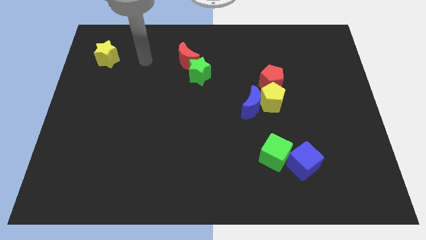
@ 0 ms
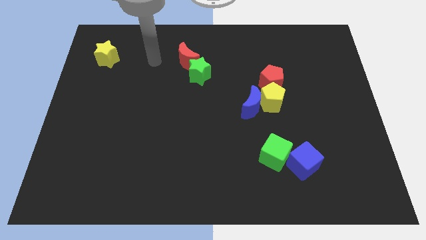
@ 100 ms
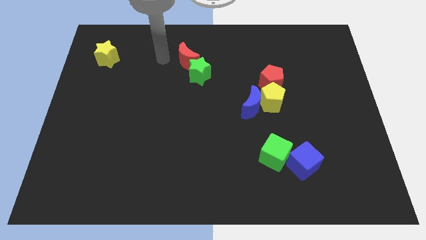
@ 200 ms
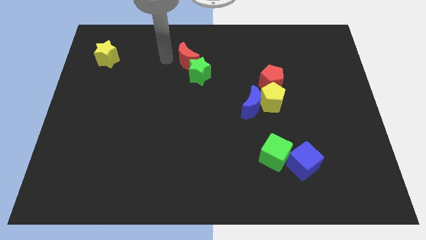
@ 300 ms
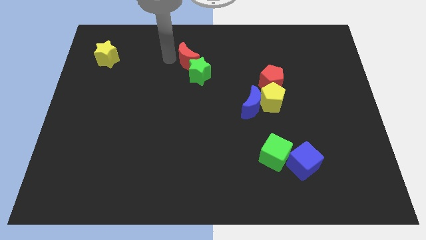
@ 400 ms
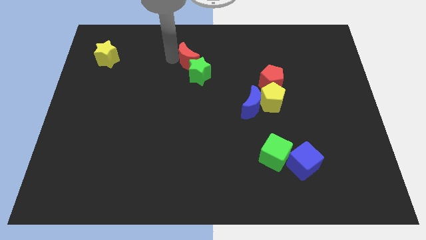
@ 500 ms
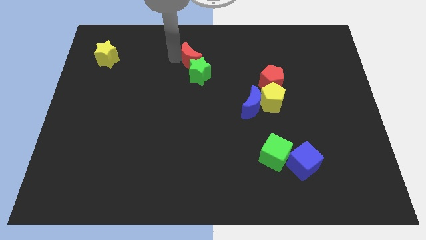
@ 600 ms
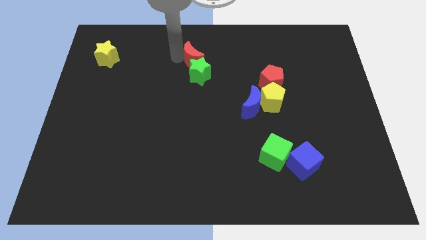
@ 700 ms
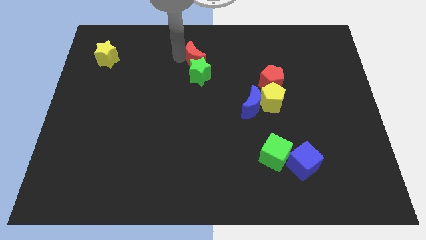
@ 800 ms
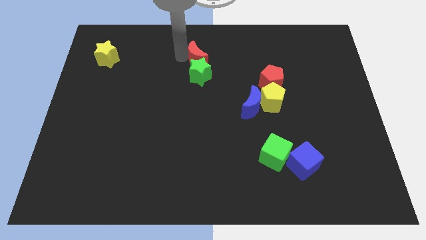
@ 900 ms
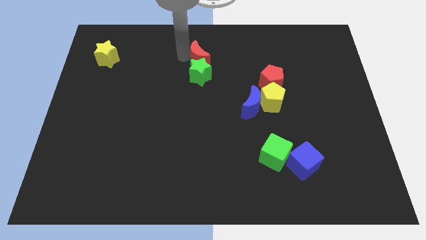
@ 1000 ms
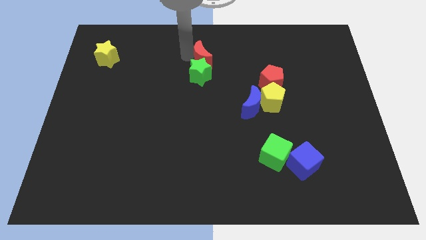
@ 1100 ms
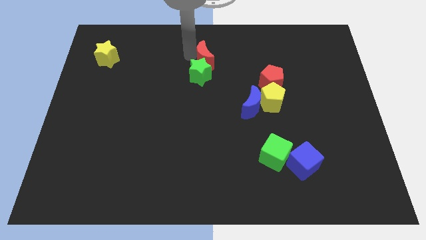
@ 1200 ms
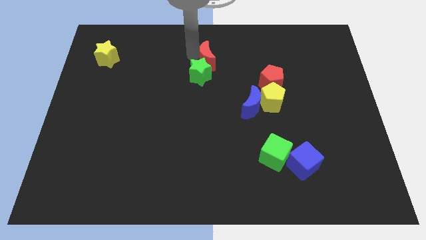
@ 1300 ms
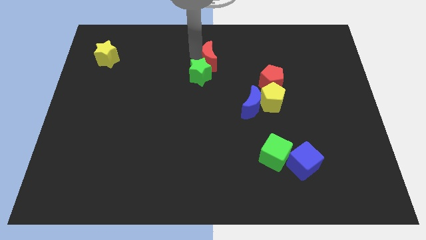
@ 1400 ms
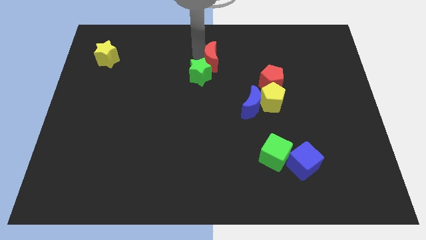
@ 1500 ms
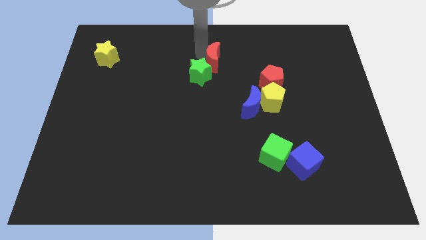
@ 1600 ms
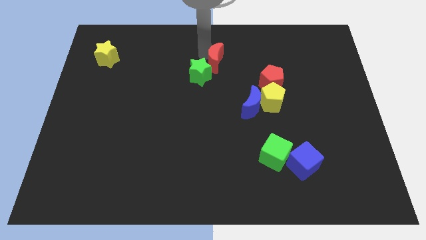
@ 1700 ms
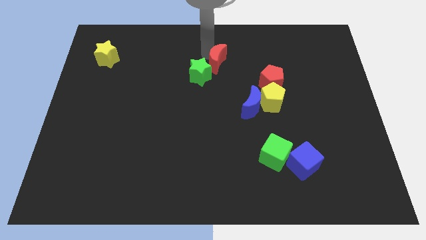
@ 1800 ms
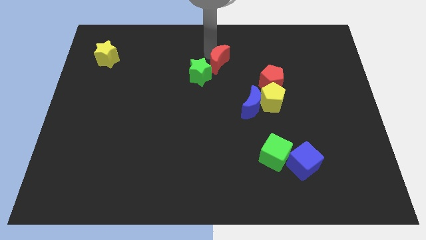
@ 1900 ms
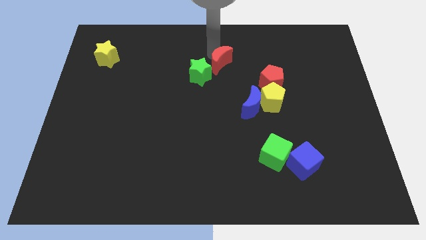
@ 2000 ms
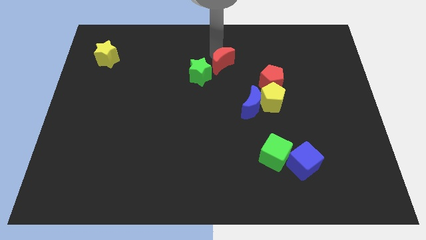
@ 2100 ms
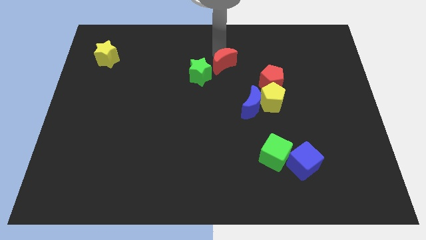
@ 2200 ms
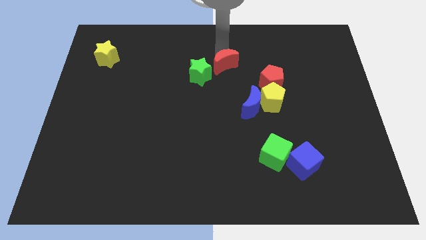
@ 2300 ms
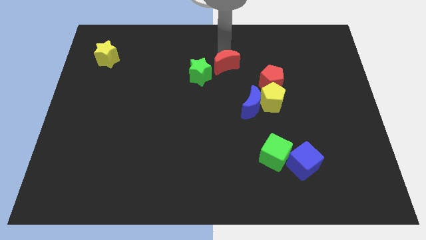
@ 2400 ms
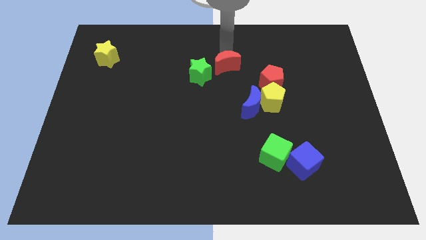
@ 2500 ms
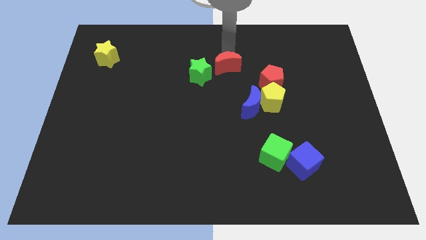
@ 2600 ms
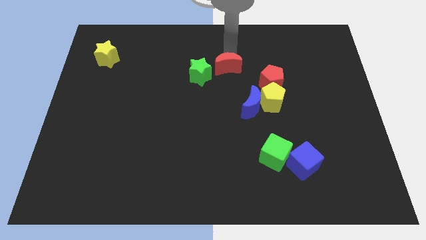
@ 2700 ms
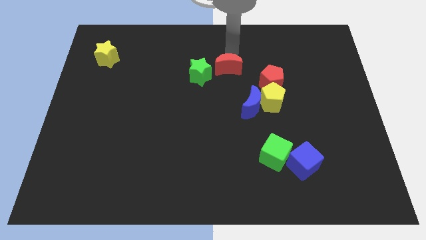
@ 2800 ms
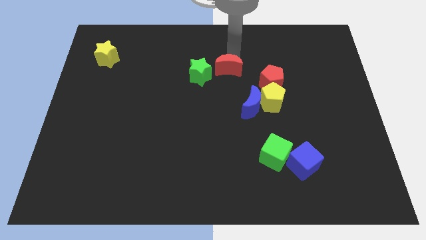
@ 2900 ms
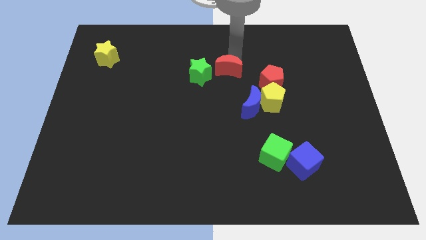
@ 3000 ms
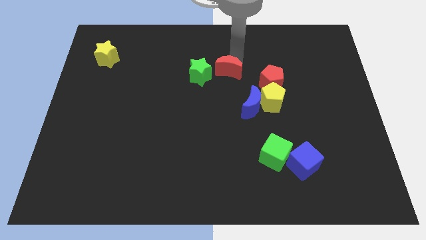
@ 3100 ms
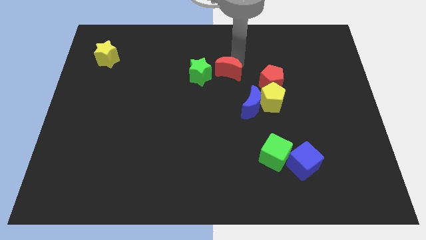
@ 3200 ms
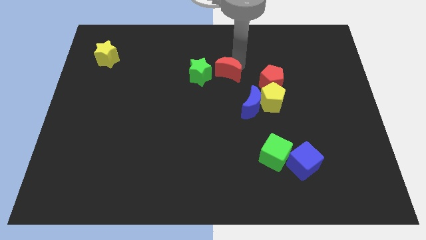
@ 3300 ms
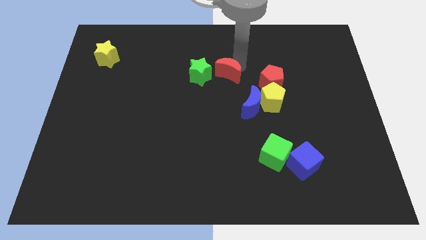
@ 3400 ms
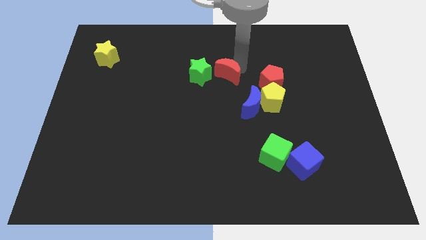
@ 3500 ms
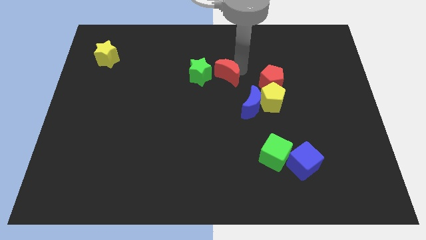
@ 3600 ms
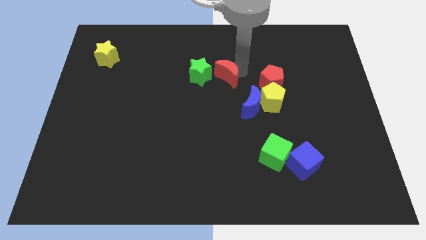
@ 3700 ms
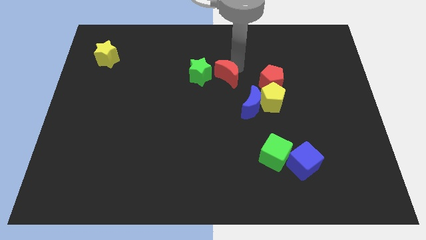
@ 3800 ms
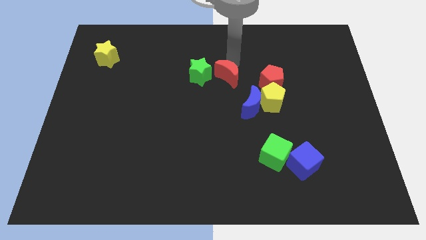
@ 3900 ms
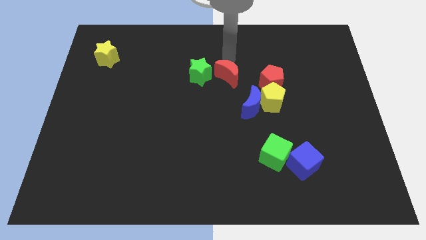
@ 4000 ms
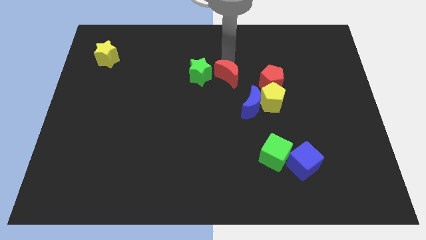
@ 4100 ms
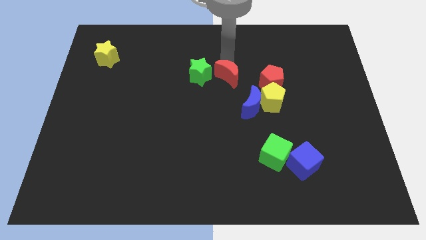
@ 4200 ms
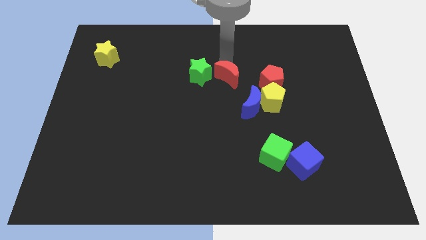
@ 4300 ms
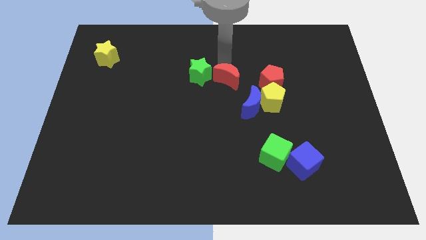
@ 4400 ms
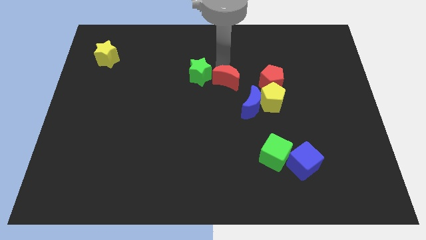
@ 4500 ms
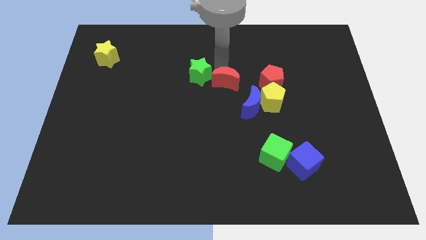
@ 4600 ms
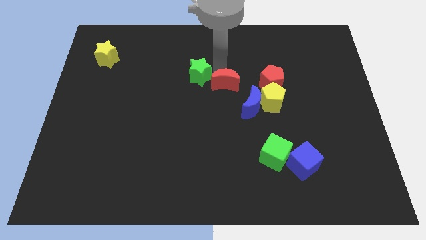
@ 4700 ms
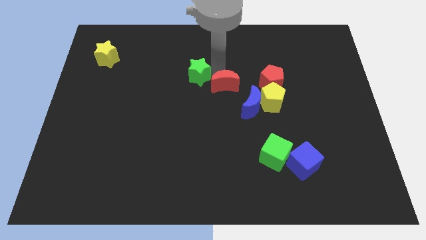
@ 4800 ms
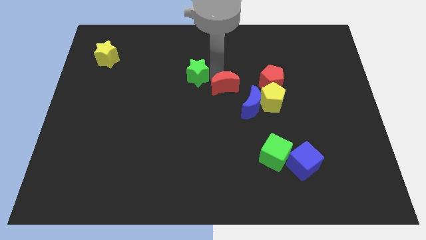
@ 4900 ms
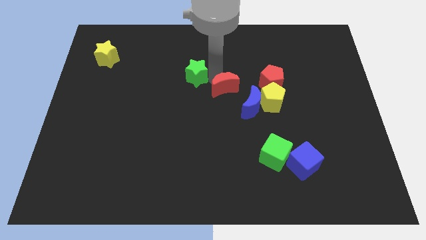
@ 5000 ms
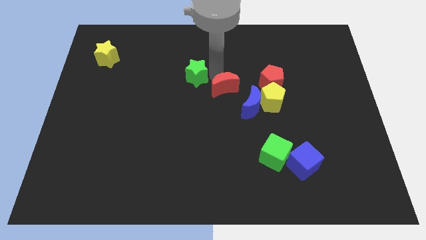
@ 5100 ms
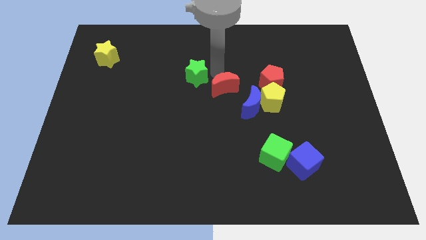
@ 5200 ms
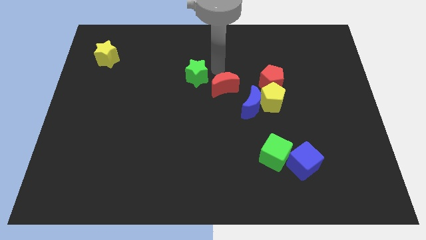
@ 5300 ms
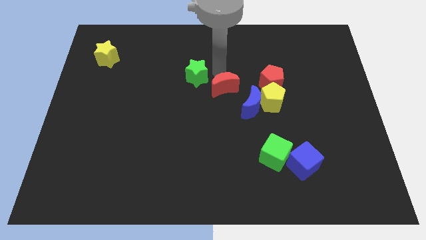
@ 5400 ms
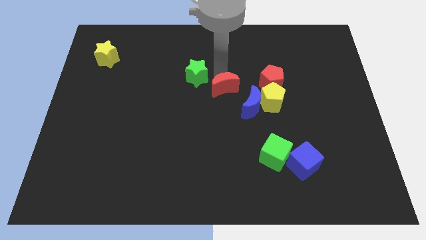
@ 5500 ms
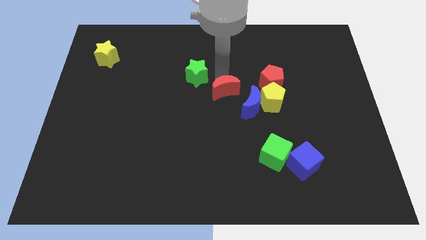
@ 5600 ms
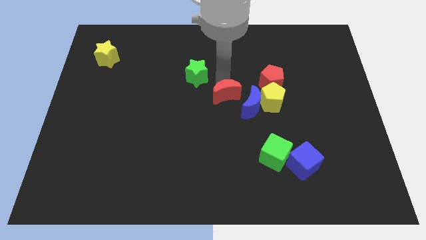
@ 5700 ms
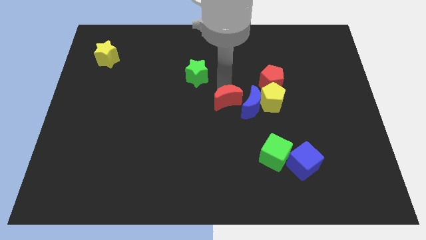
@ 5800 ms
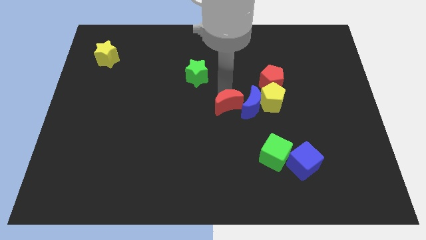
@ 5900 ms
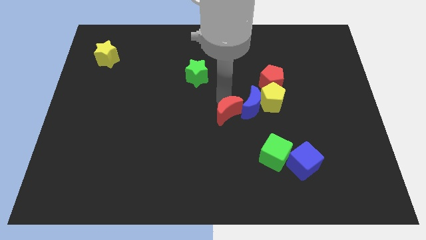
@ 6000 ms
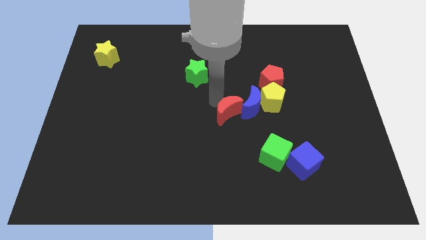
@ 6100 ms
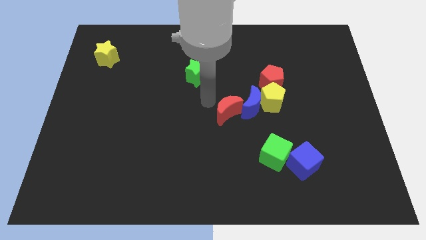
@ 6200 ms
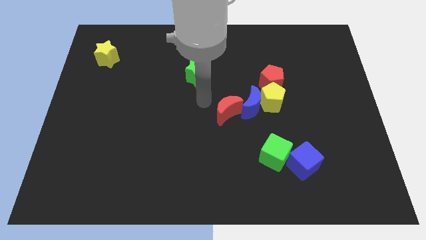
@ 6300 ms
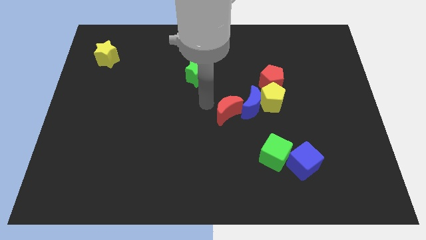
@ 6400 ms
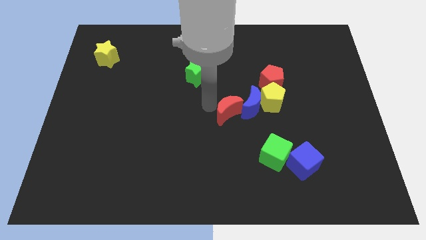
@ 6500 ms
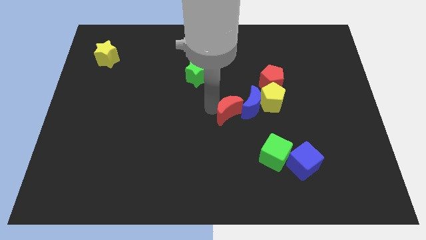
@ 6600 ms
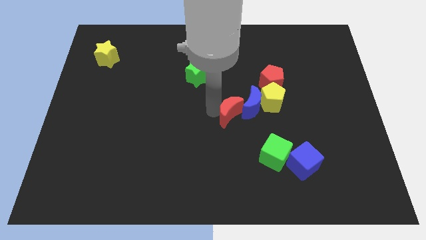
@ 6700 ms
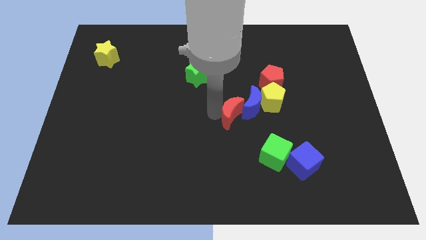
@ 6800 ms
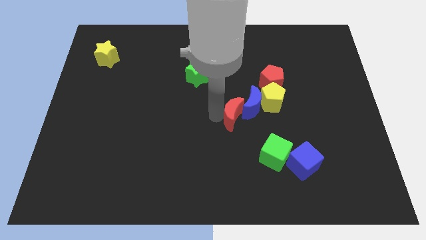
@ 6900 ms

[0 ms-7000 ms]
move the red moon downwards and to the right

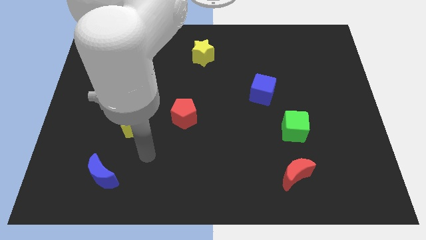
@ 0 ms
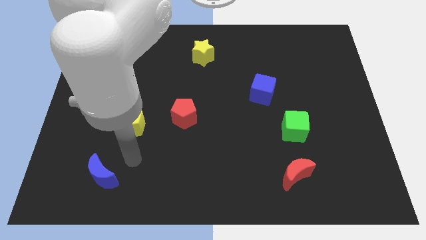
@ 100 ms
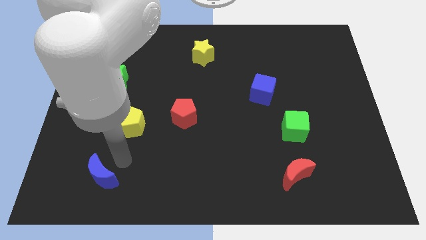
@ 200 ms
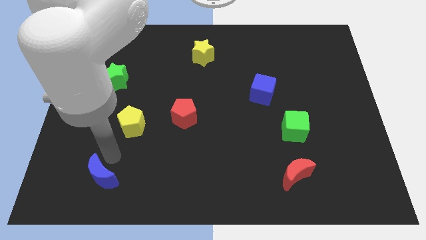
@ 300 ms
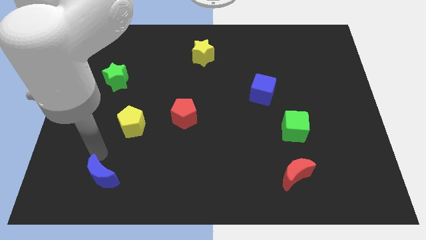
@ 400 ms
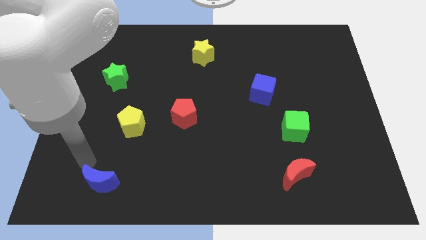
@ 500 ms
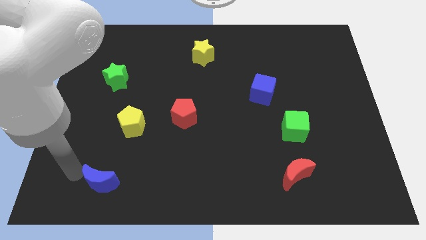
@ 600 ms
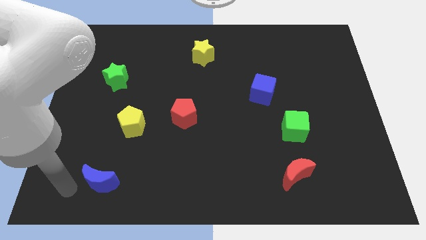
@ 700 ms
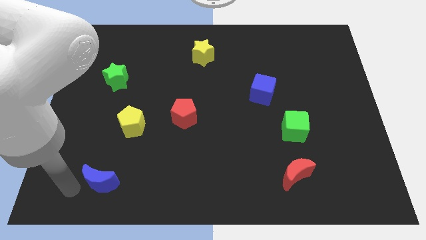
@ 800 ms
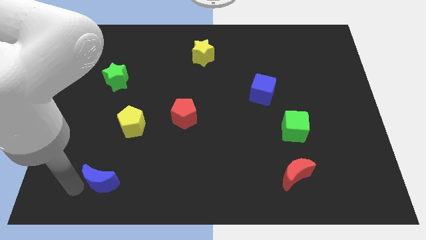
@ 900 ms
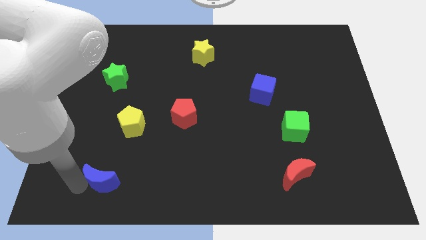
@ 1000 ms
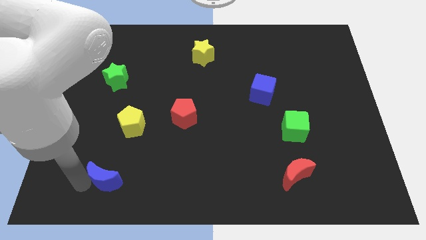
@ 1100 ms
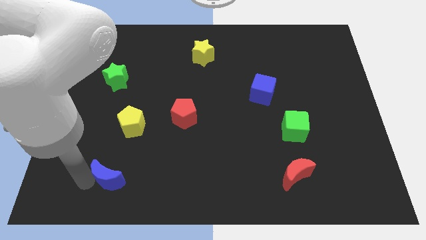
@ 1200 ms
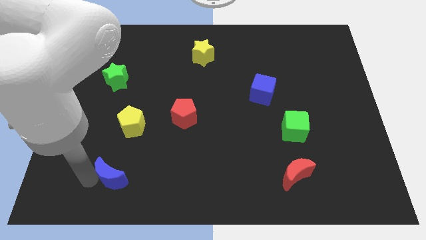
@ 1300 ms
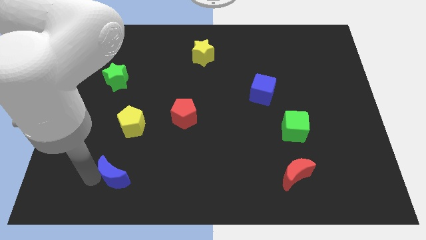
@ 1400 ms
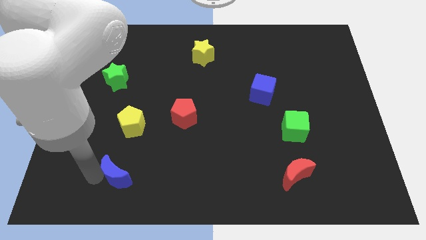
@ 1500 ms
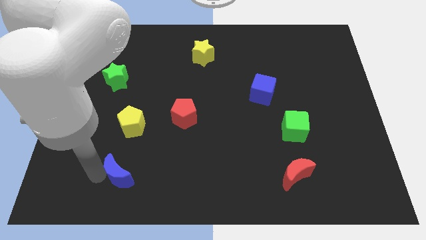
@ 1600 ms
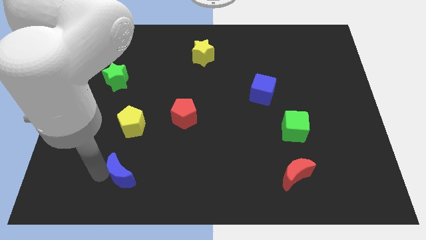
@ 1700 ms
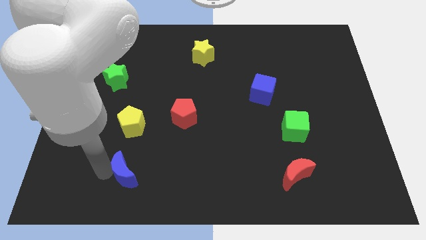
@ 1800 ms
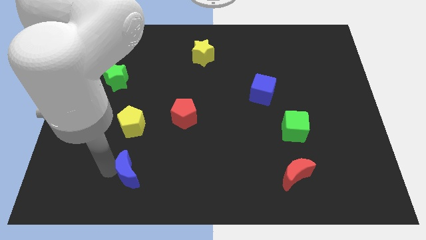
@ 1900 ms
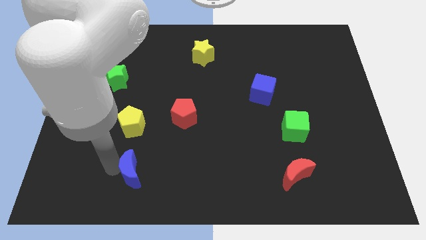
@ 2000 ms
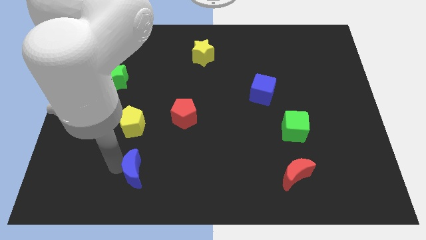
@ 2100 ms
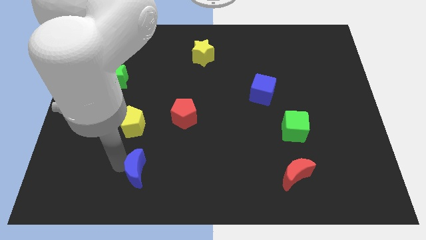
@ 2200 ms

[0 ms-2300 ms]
move the blue moon a little bit to the right
